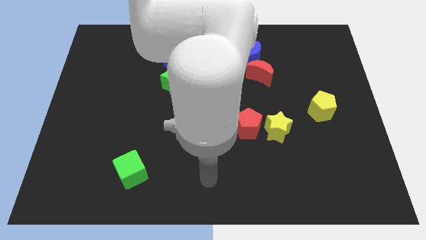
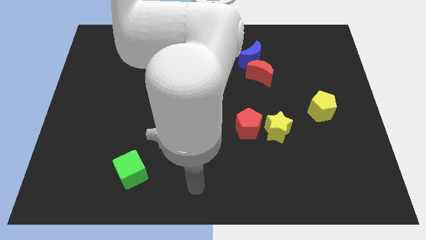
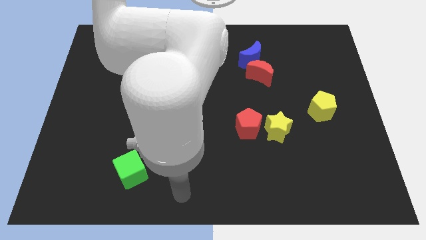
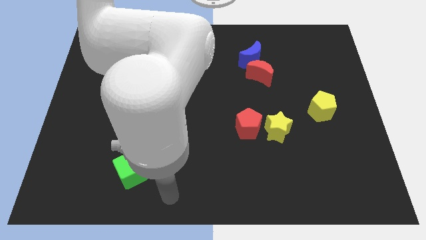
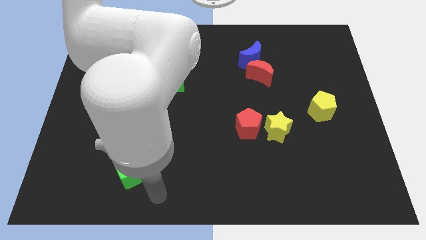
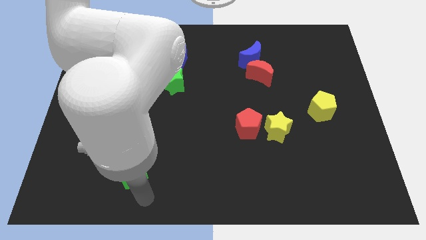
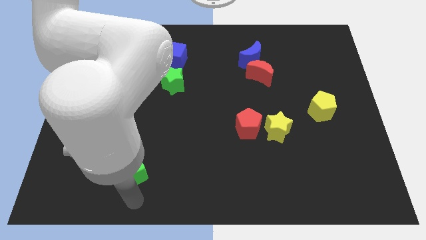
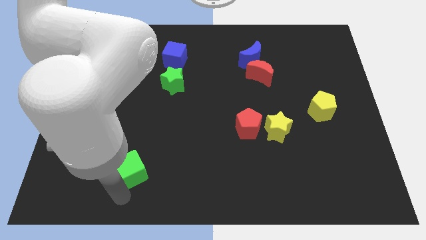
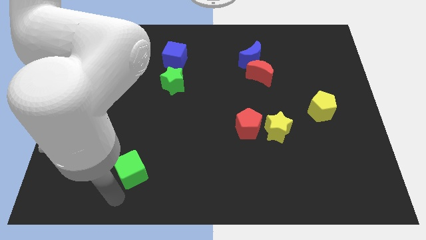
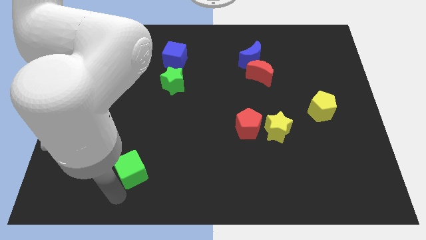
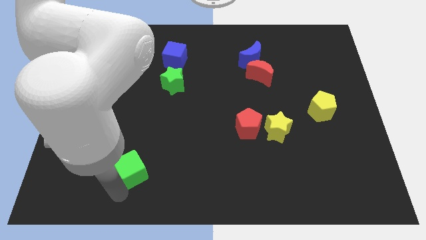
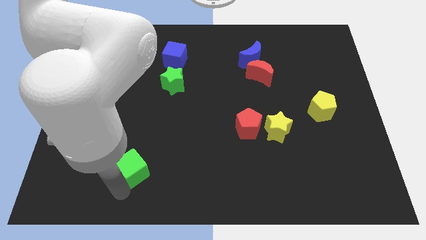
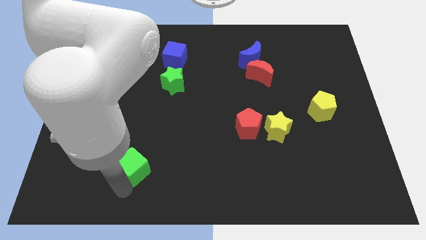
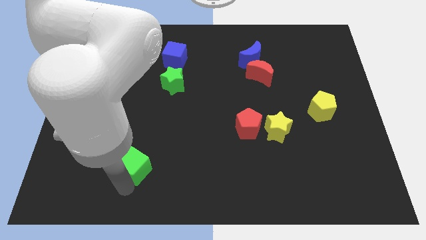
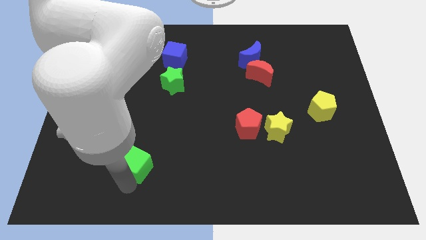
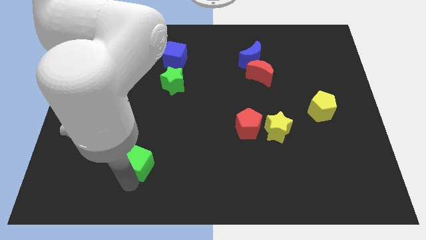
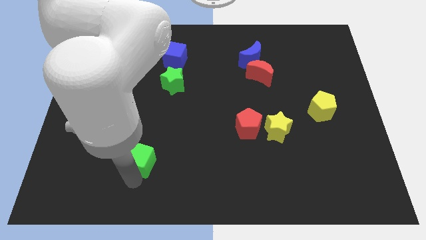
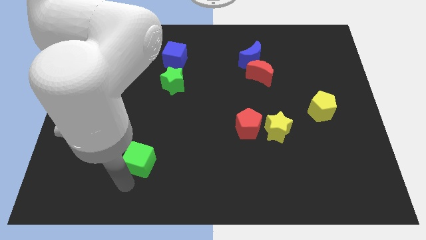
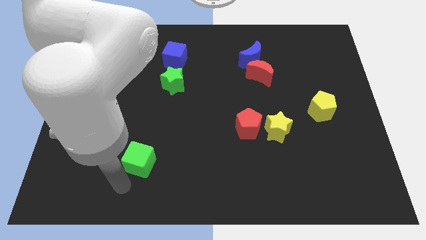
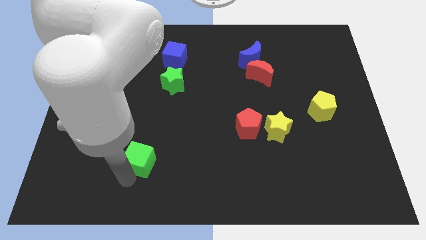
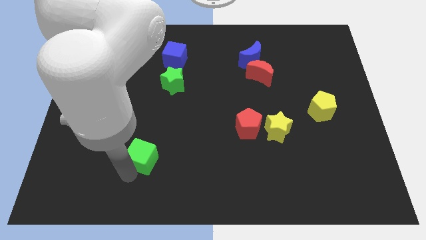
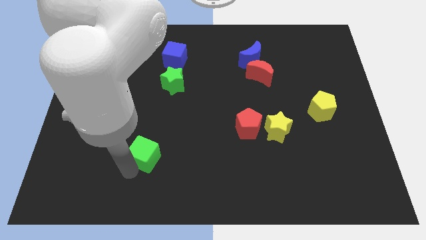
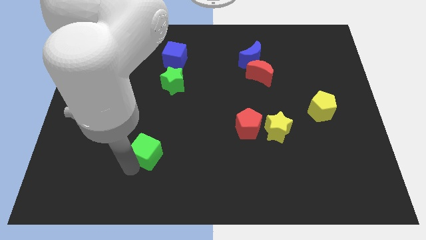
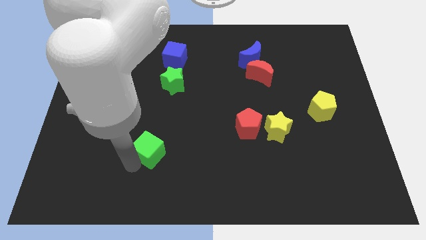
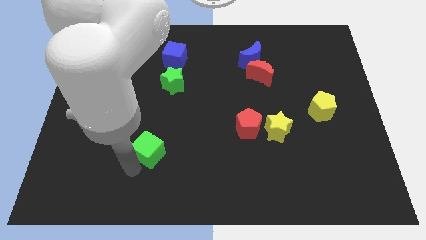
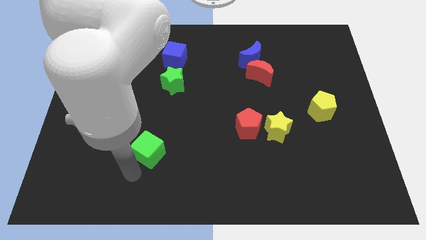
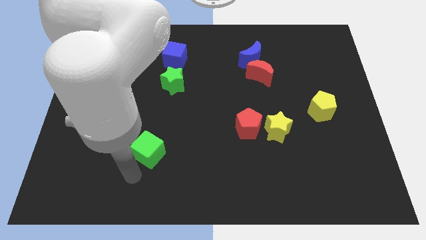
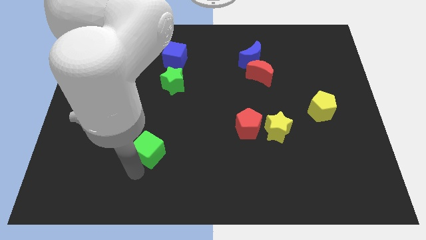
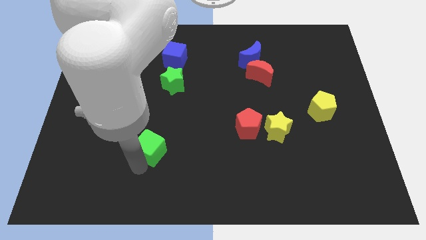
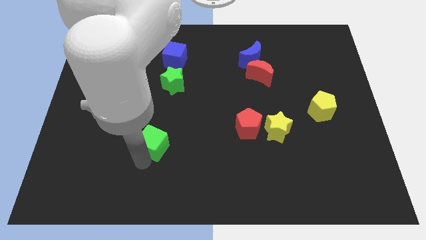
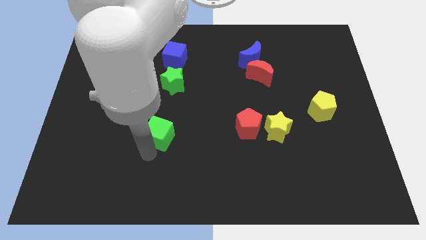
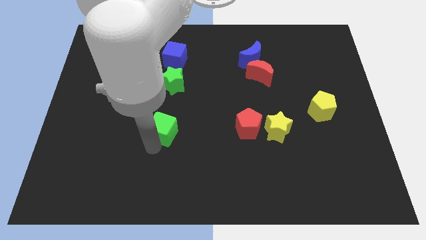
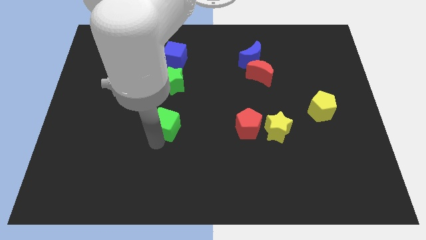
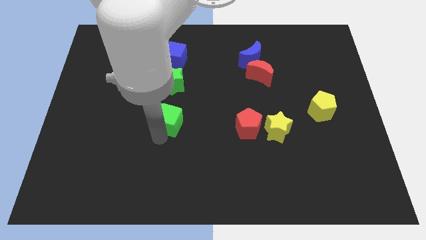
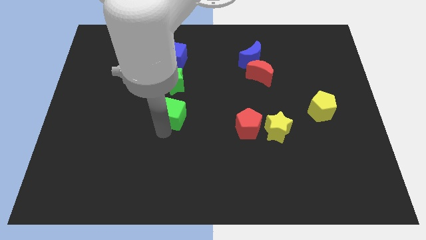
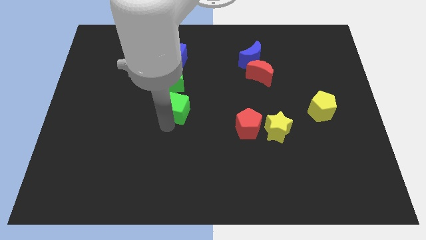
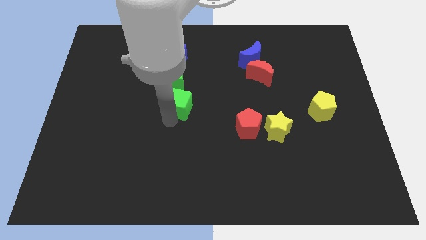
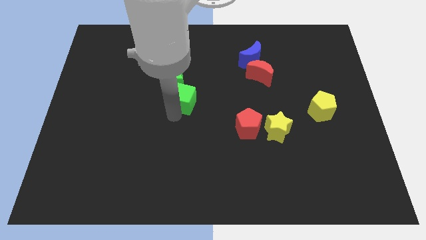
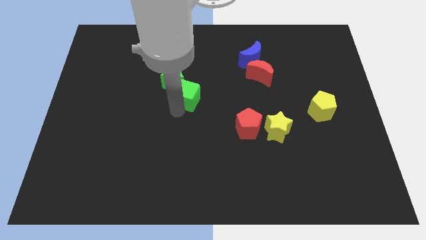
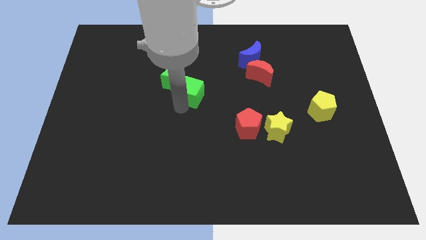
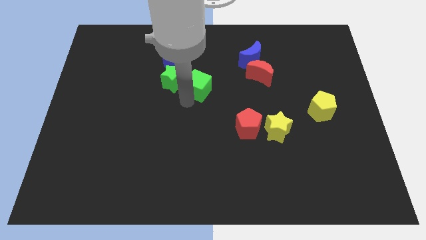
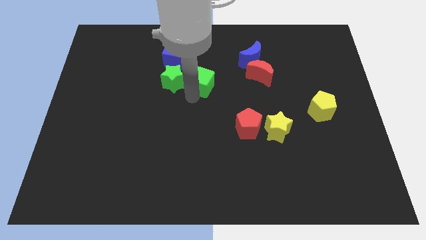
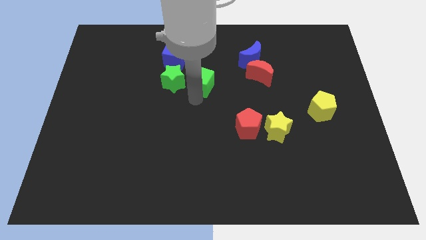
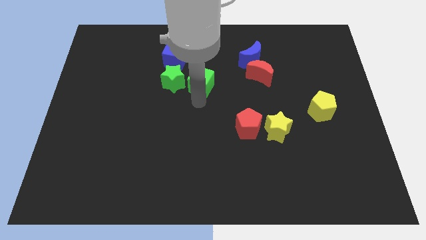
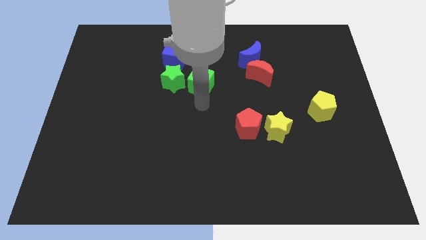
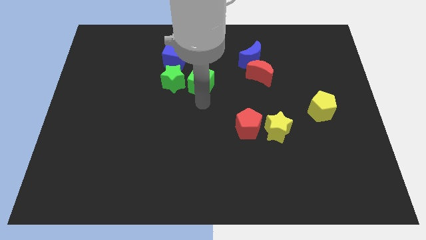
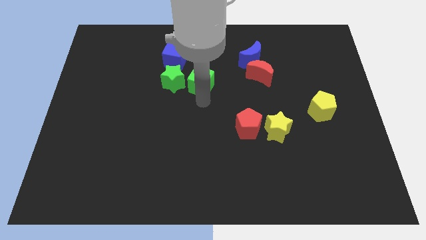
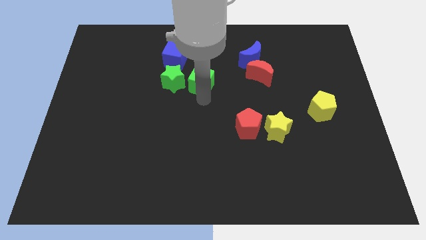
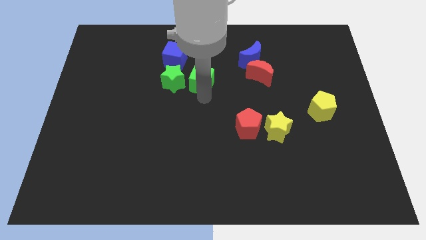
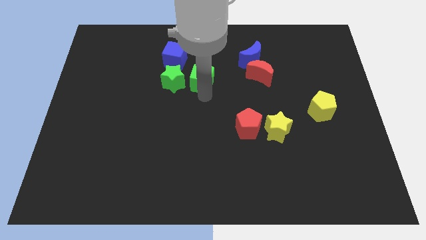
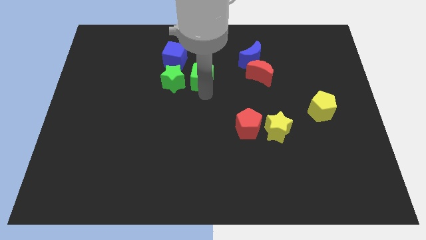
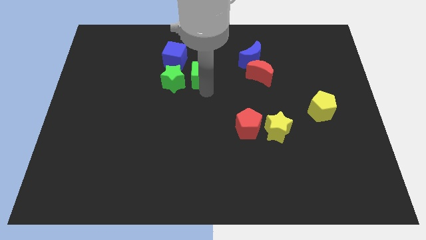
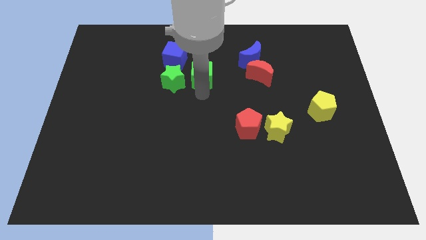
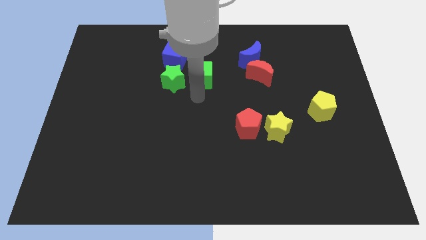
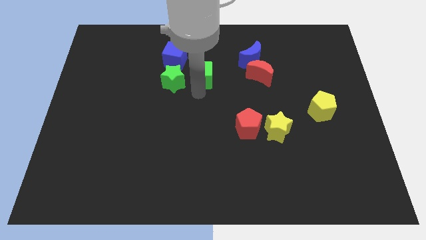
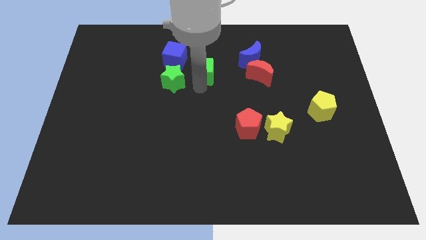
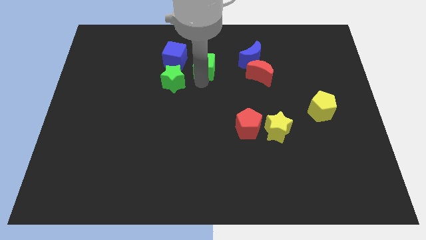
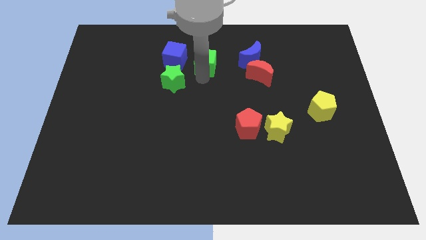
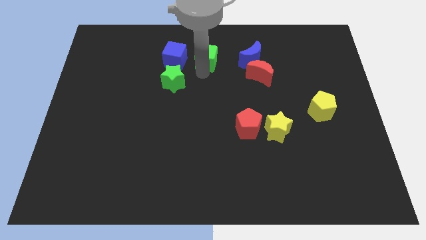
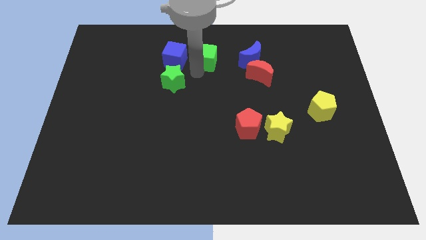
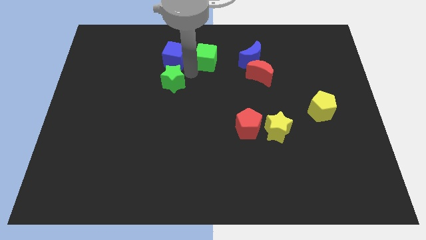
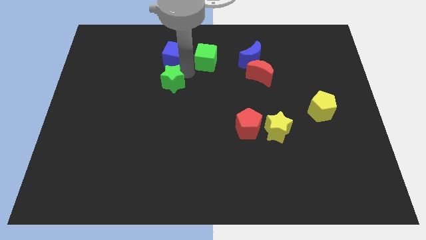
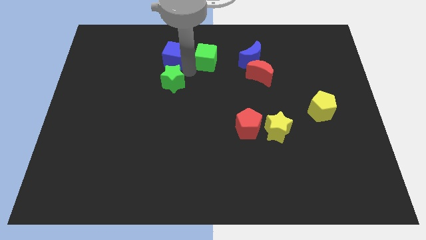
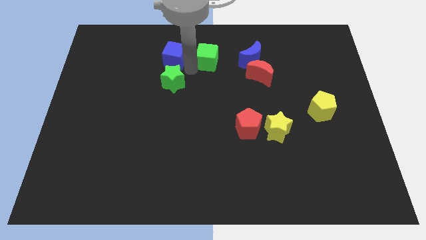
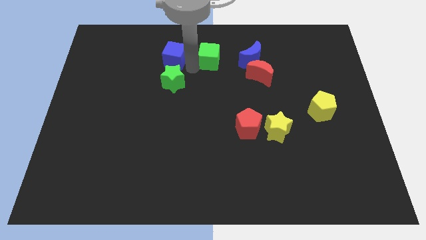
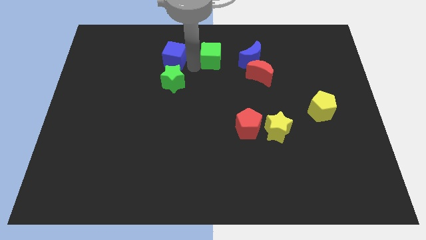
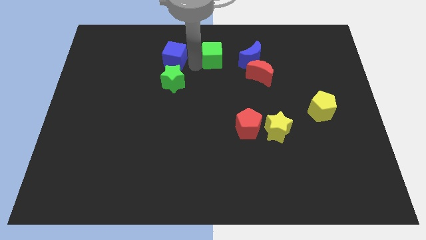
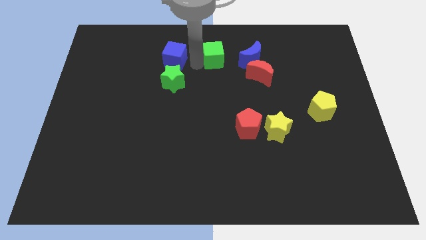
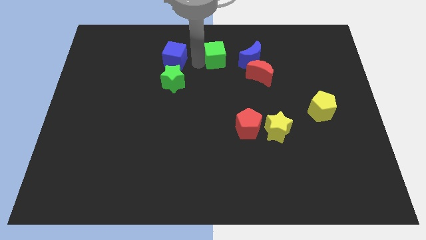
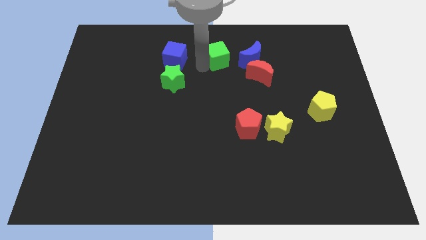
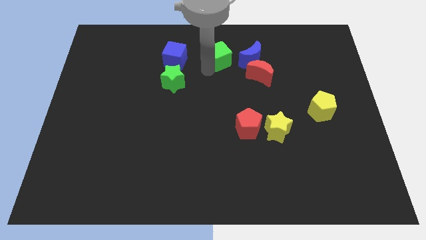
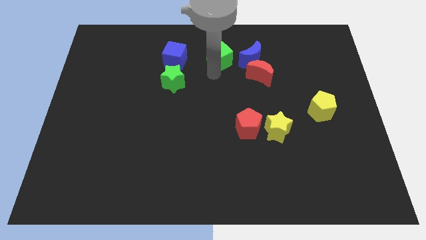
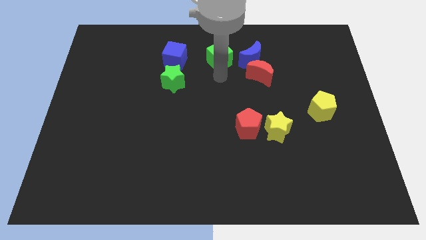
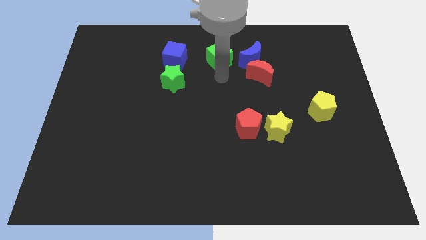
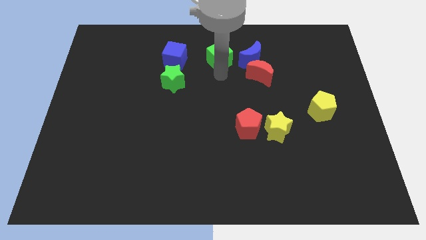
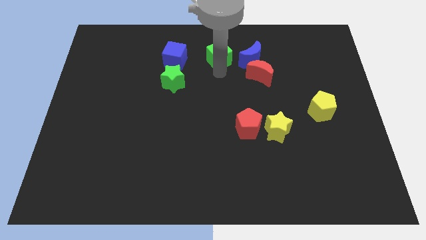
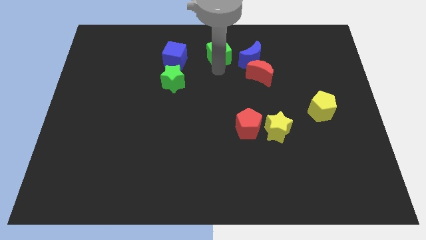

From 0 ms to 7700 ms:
push the green cube to the towards your base
